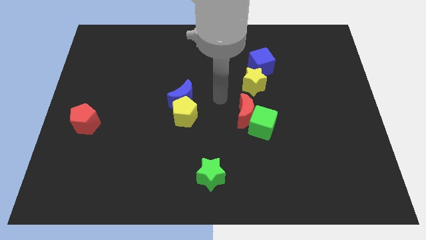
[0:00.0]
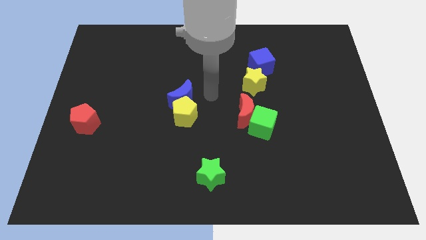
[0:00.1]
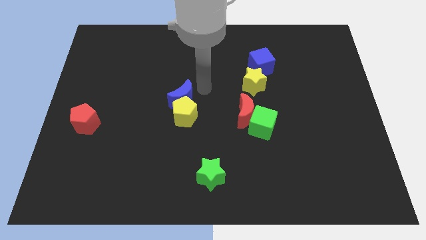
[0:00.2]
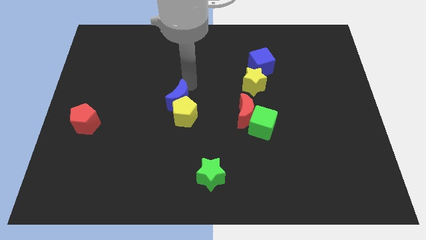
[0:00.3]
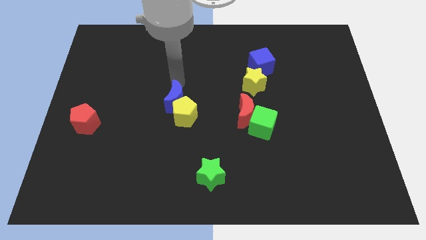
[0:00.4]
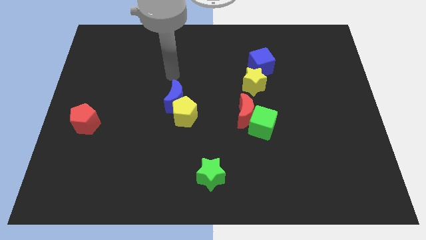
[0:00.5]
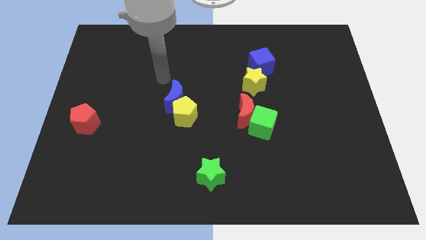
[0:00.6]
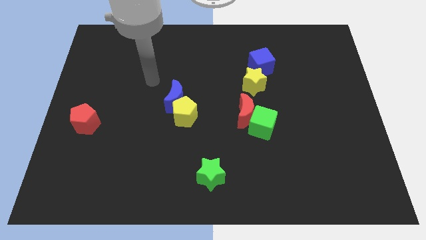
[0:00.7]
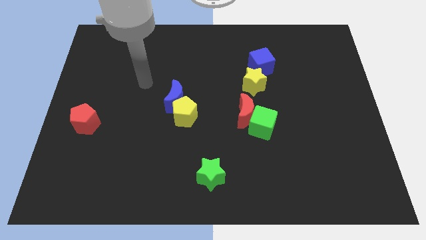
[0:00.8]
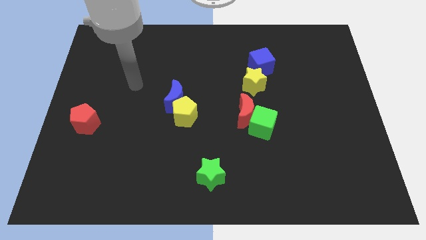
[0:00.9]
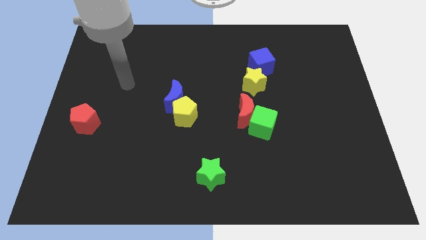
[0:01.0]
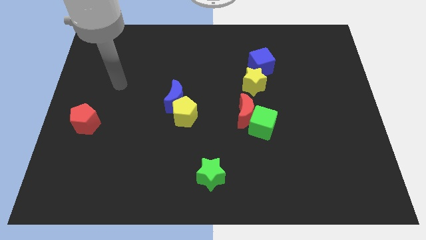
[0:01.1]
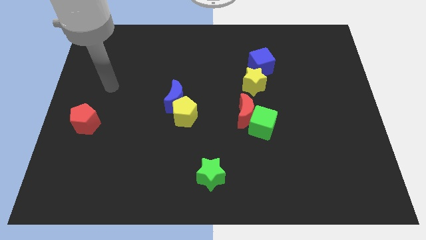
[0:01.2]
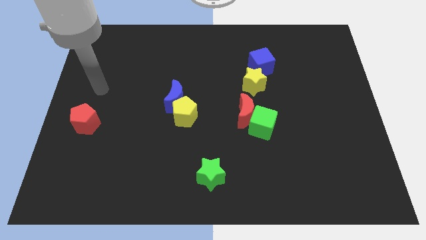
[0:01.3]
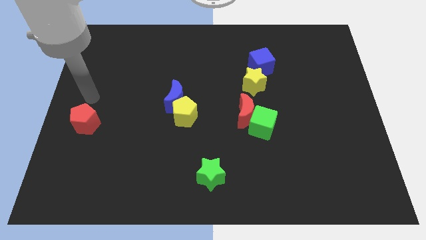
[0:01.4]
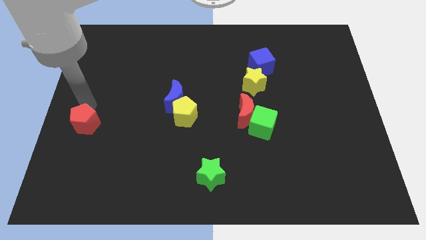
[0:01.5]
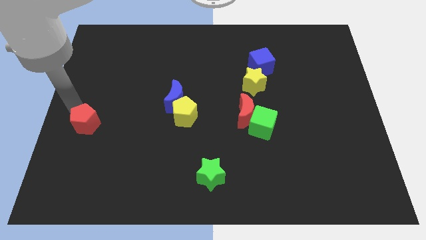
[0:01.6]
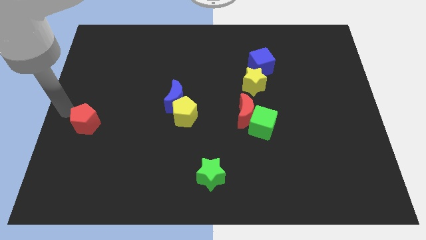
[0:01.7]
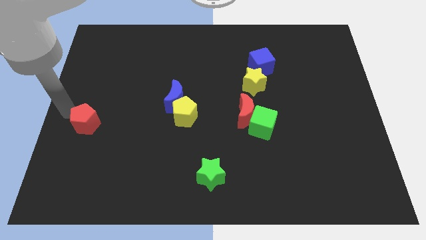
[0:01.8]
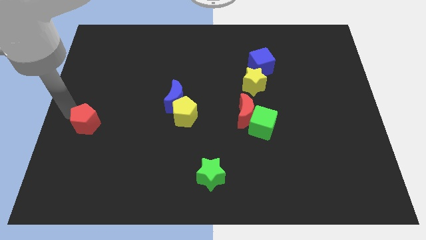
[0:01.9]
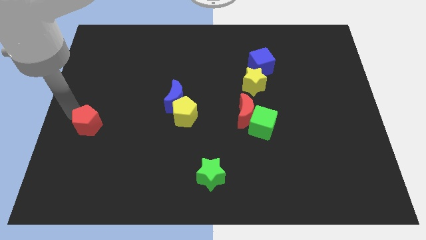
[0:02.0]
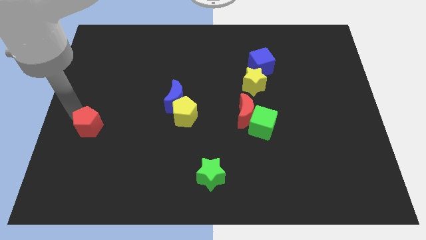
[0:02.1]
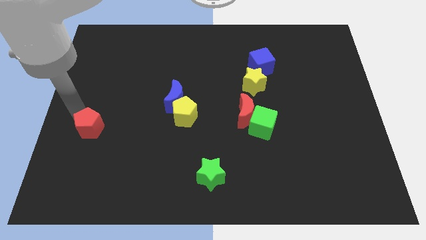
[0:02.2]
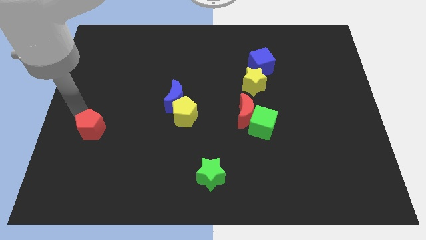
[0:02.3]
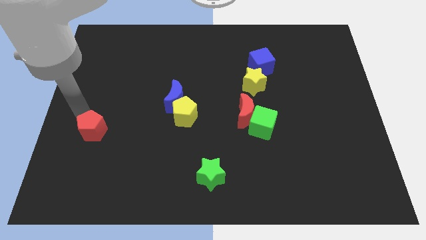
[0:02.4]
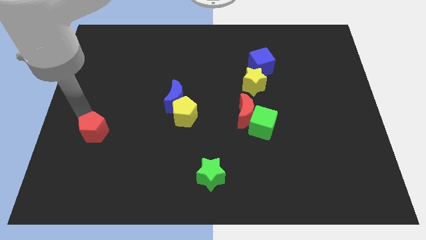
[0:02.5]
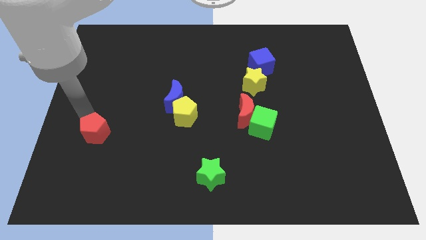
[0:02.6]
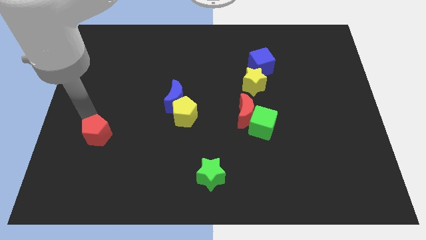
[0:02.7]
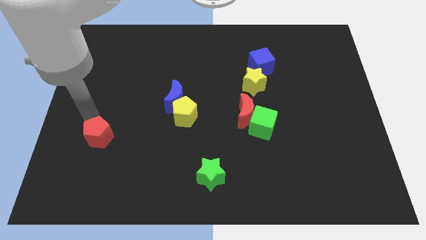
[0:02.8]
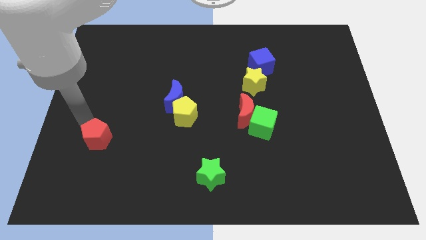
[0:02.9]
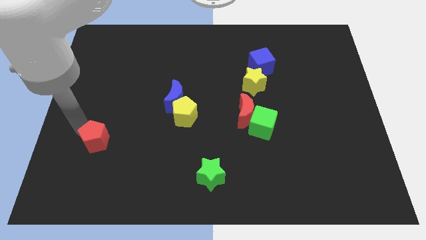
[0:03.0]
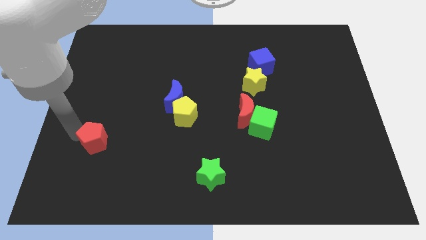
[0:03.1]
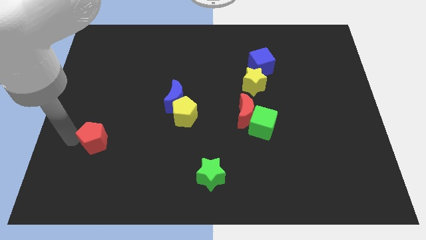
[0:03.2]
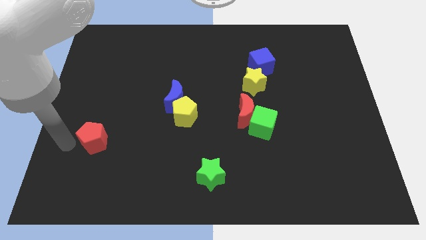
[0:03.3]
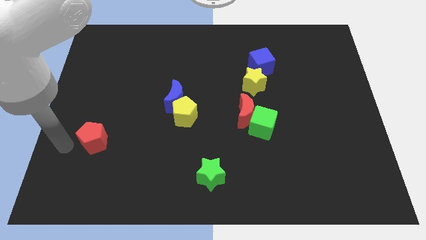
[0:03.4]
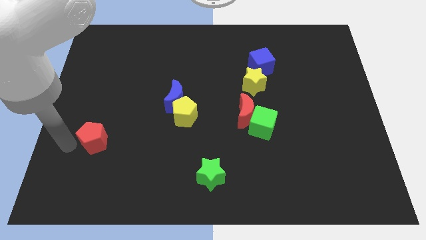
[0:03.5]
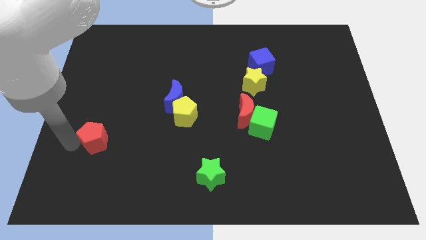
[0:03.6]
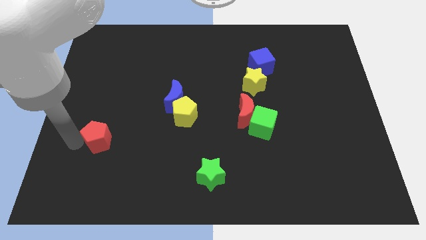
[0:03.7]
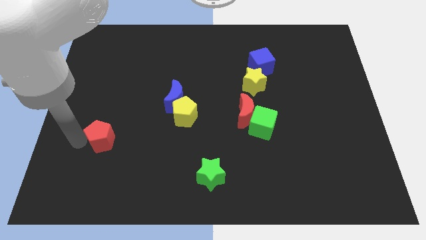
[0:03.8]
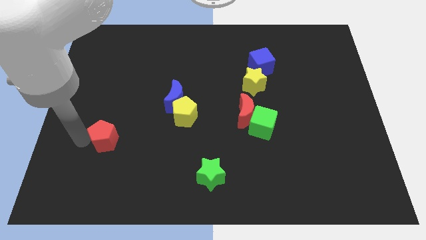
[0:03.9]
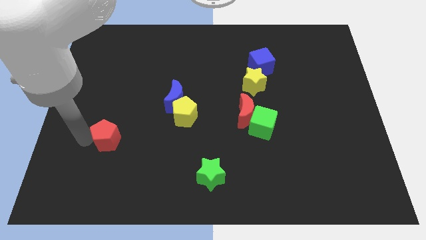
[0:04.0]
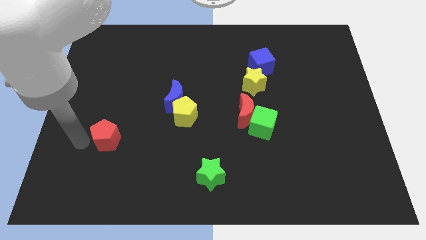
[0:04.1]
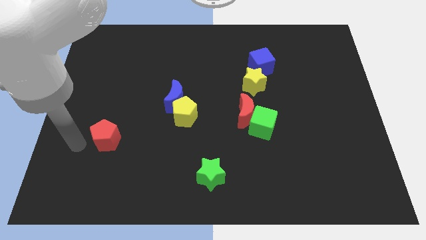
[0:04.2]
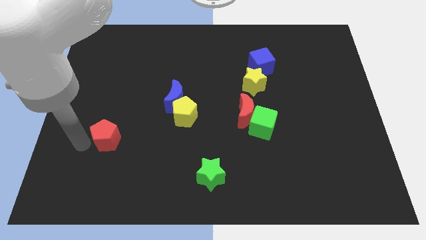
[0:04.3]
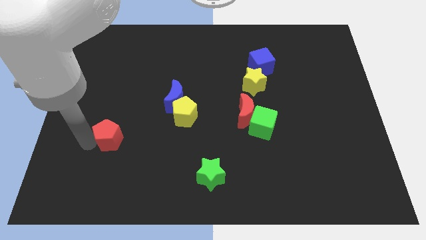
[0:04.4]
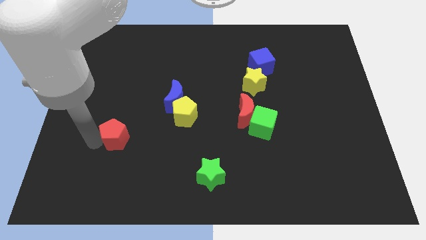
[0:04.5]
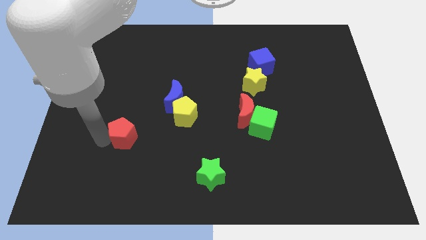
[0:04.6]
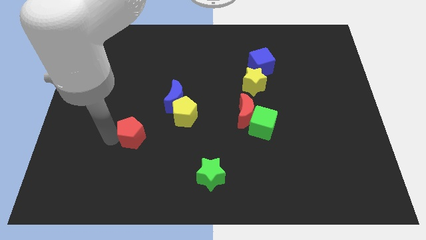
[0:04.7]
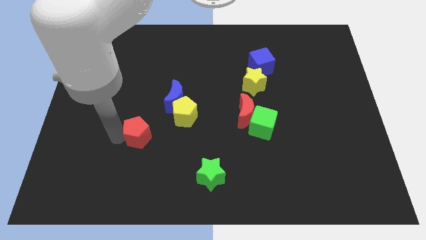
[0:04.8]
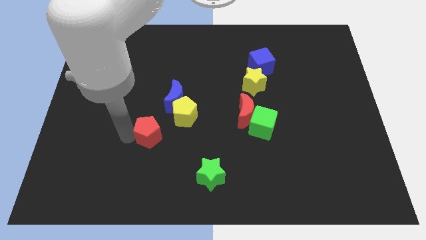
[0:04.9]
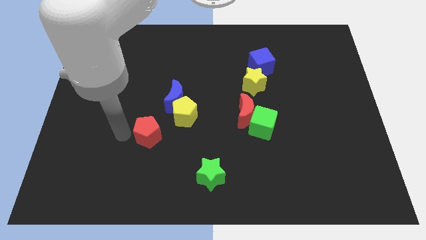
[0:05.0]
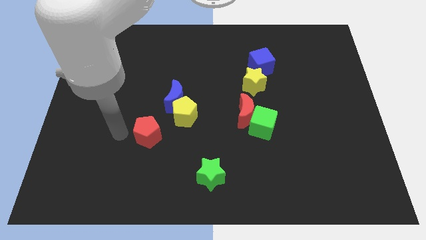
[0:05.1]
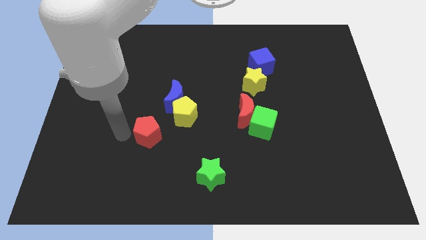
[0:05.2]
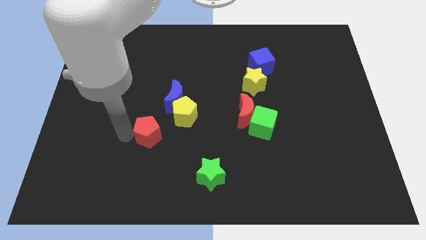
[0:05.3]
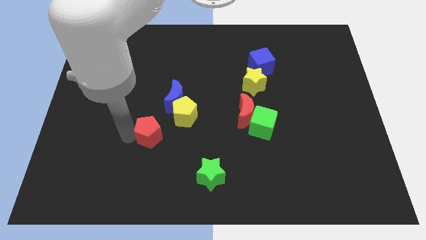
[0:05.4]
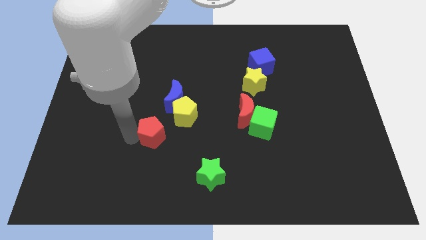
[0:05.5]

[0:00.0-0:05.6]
move the red pentagon to the bottom of the blue moon

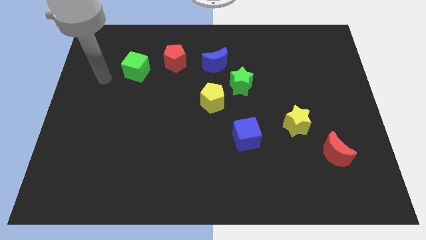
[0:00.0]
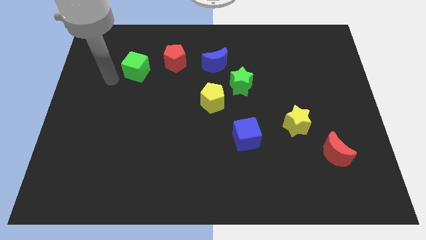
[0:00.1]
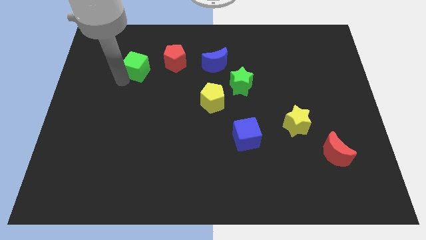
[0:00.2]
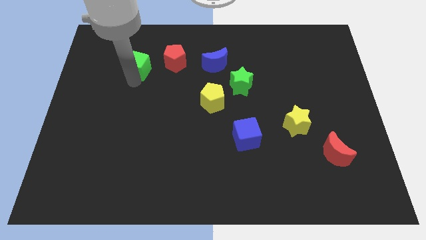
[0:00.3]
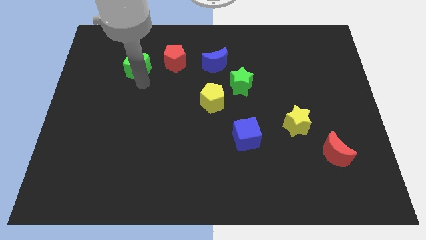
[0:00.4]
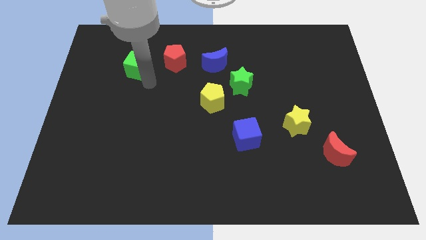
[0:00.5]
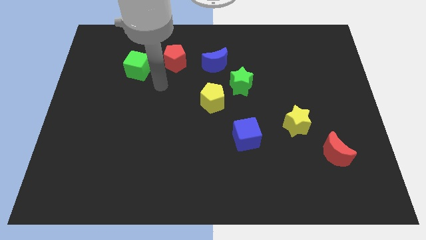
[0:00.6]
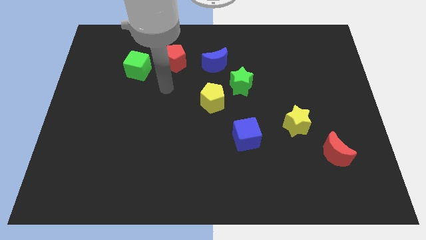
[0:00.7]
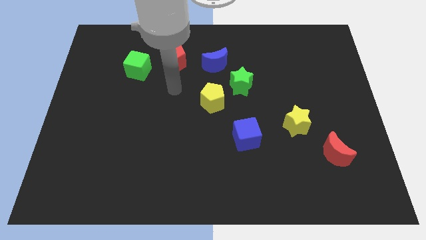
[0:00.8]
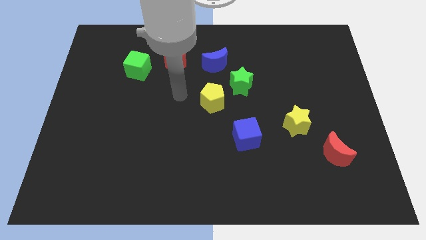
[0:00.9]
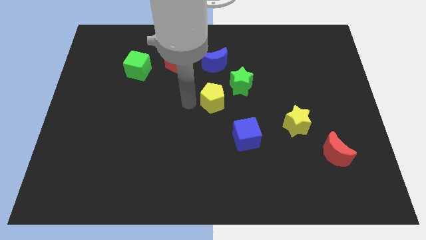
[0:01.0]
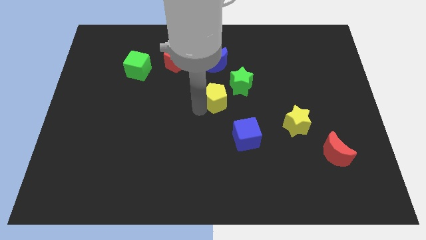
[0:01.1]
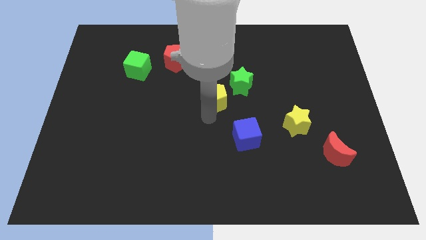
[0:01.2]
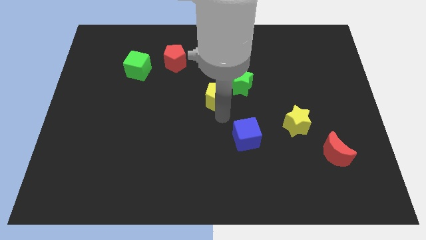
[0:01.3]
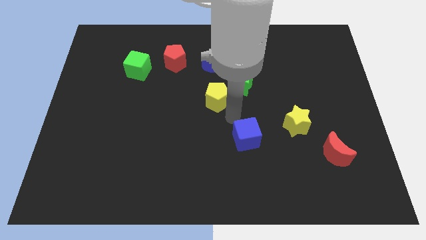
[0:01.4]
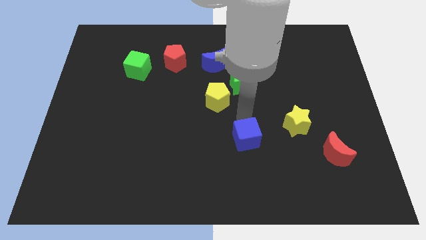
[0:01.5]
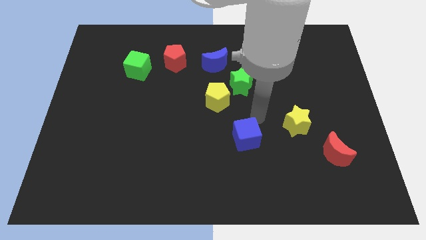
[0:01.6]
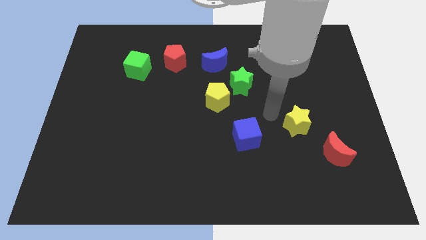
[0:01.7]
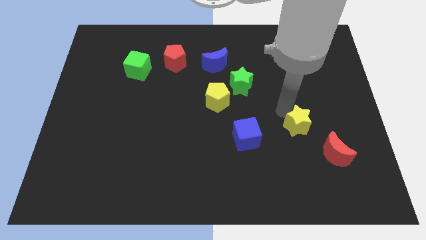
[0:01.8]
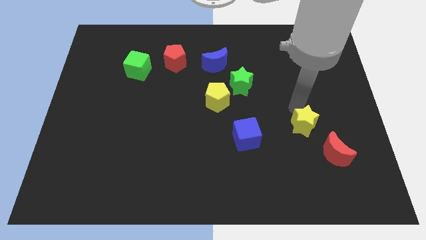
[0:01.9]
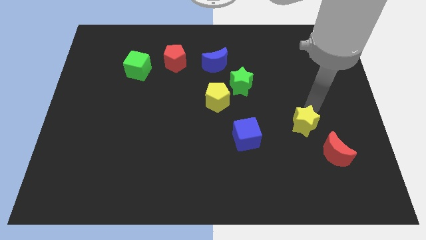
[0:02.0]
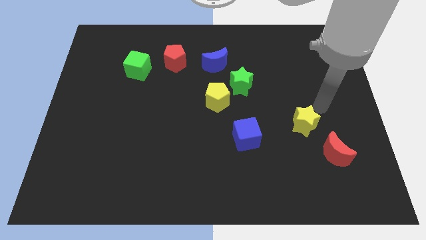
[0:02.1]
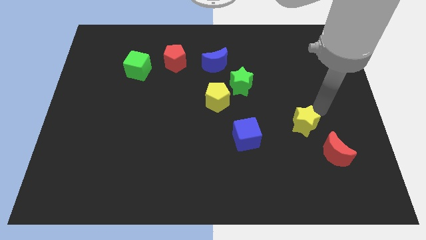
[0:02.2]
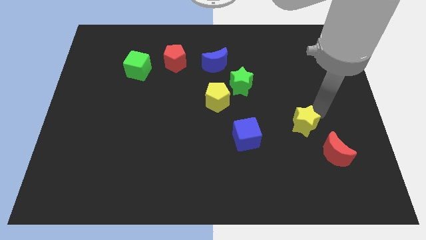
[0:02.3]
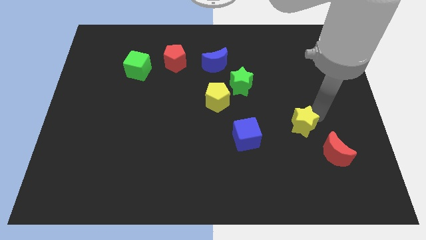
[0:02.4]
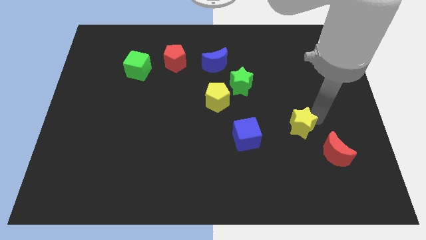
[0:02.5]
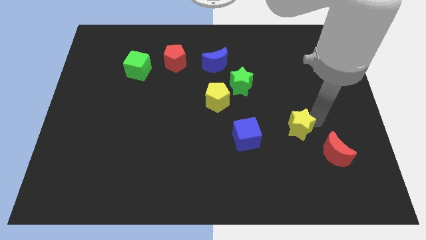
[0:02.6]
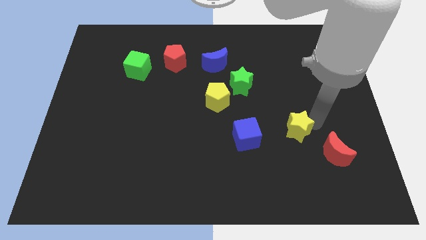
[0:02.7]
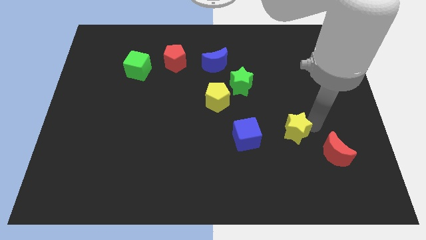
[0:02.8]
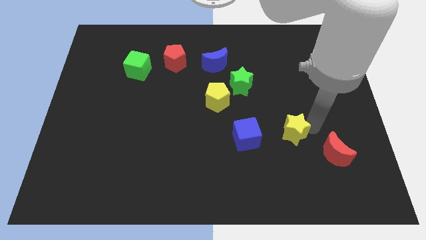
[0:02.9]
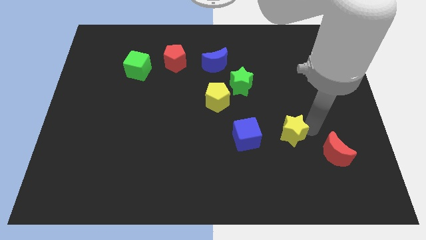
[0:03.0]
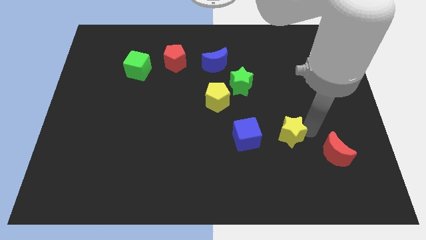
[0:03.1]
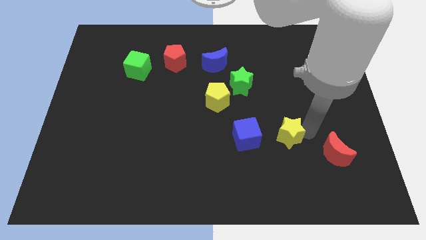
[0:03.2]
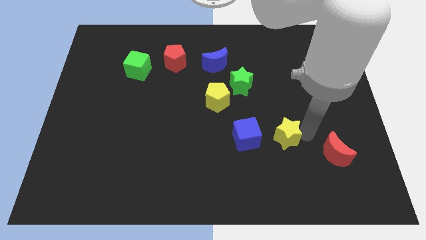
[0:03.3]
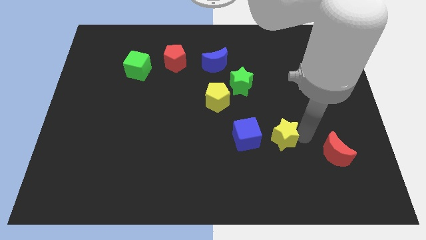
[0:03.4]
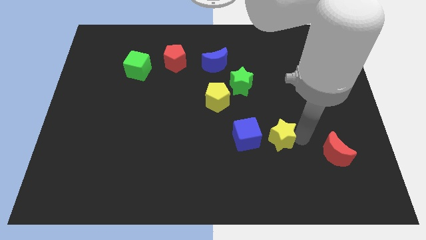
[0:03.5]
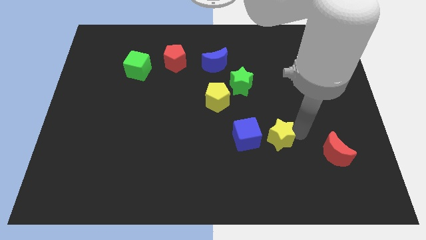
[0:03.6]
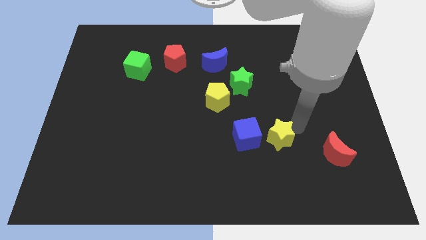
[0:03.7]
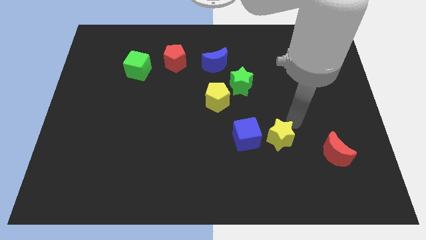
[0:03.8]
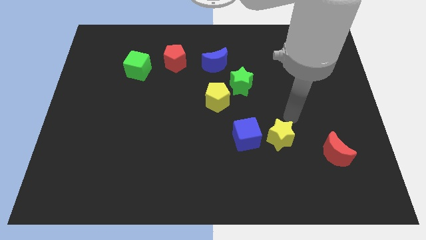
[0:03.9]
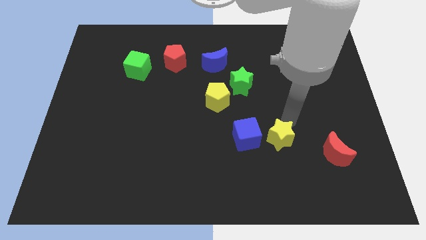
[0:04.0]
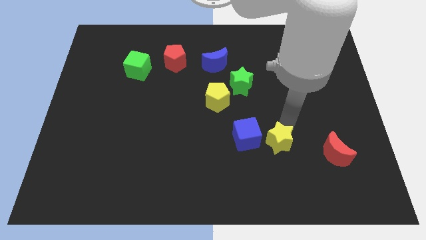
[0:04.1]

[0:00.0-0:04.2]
push the yellow star to the bottom right of the blue cube
